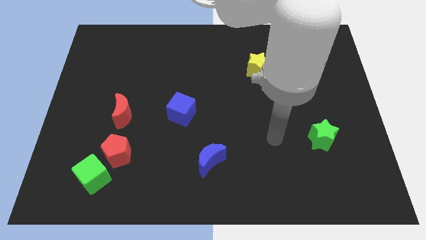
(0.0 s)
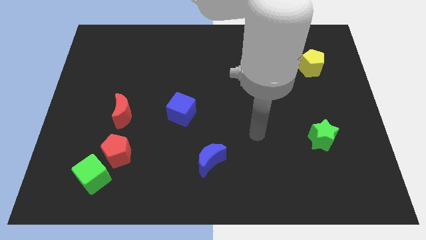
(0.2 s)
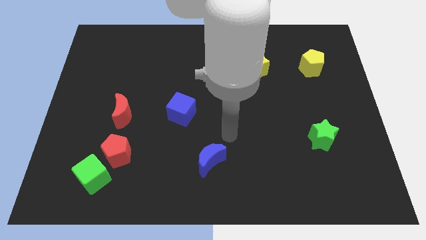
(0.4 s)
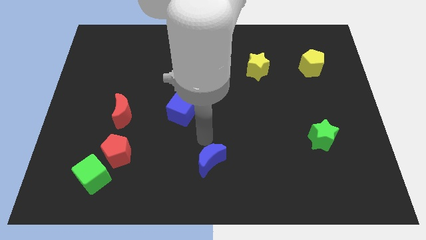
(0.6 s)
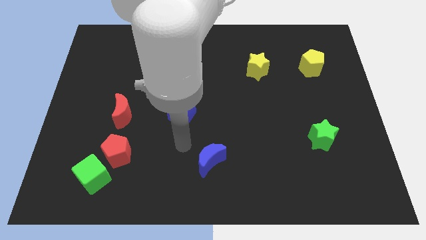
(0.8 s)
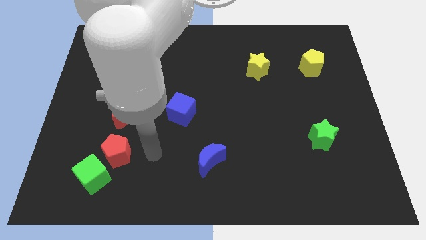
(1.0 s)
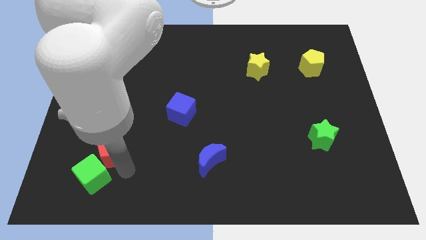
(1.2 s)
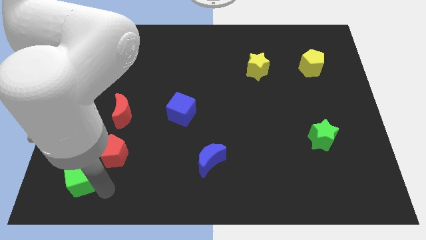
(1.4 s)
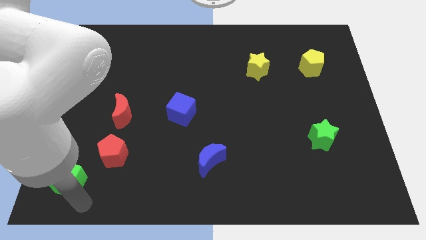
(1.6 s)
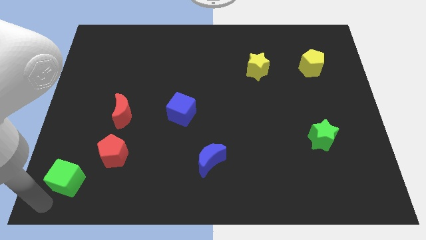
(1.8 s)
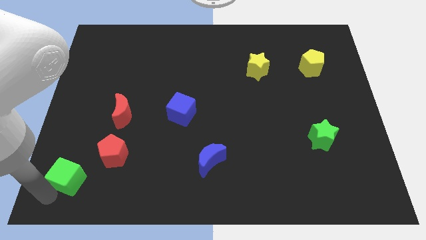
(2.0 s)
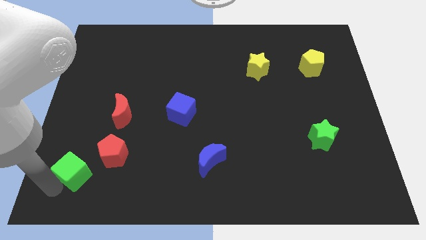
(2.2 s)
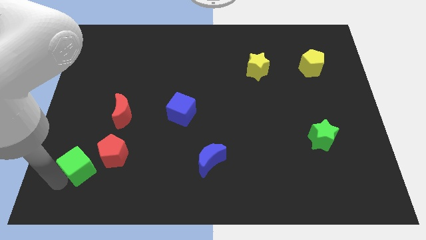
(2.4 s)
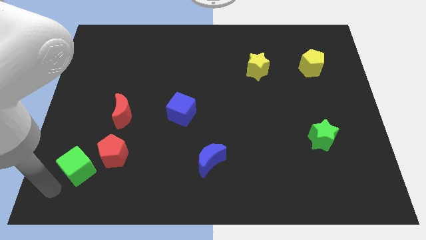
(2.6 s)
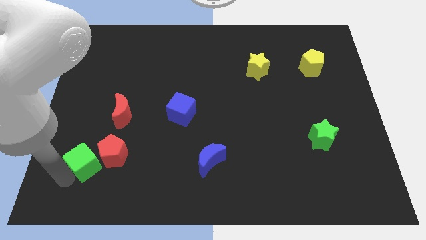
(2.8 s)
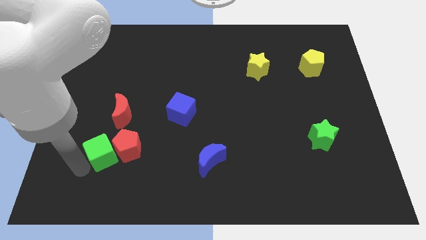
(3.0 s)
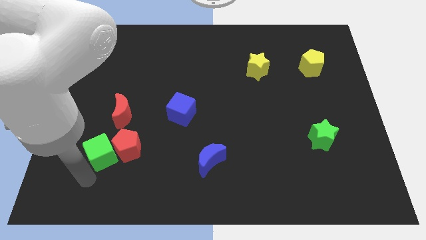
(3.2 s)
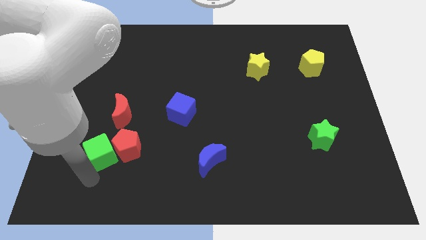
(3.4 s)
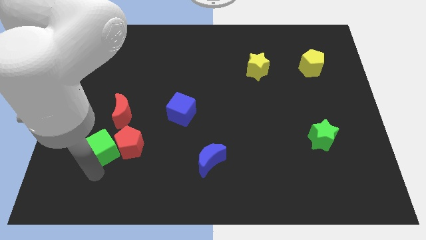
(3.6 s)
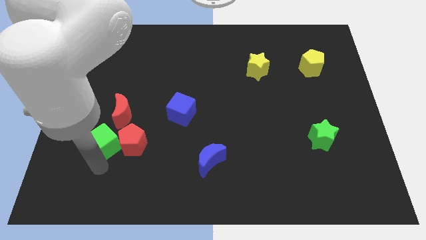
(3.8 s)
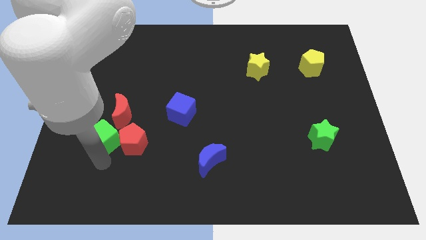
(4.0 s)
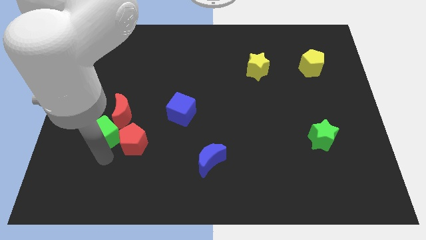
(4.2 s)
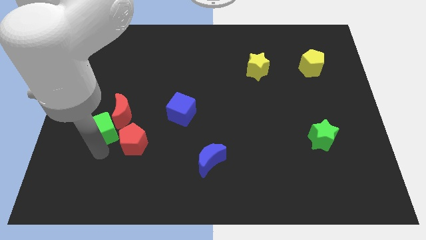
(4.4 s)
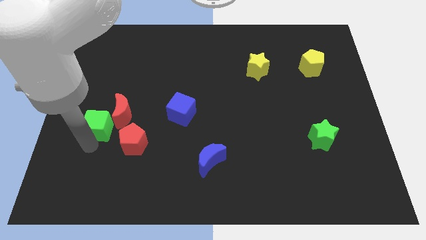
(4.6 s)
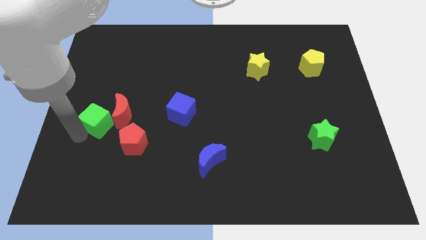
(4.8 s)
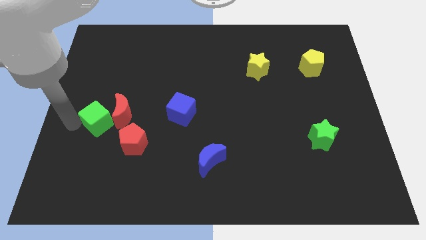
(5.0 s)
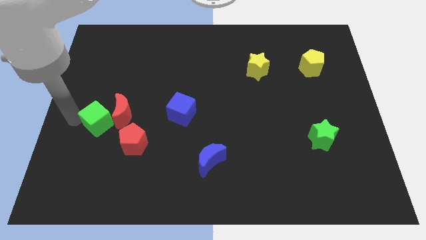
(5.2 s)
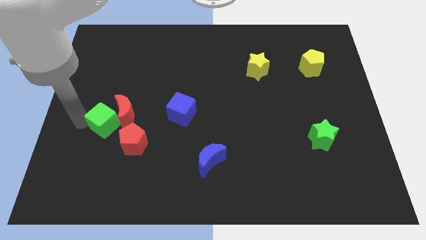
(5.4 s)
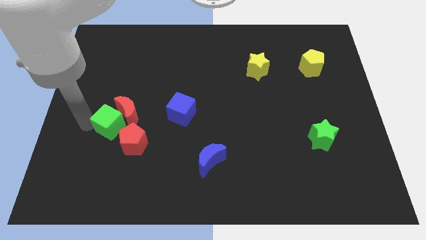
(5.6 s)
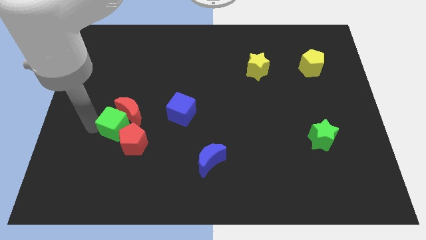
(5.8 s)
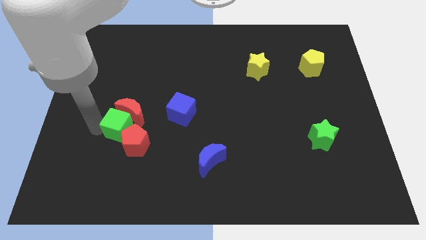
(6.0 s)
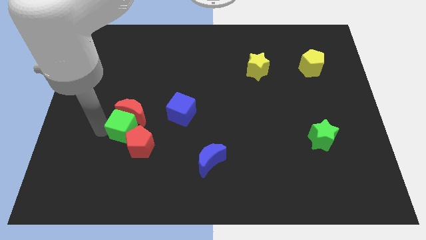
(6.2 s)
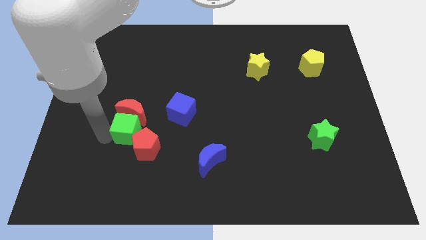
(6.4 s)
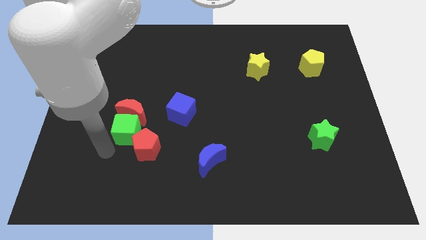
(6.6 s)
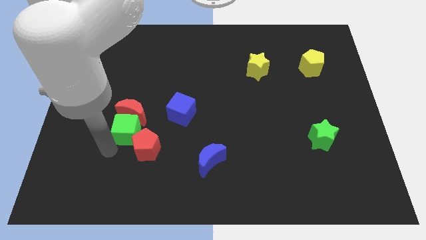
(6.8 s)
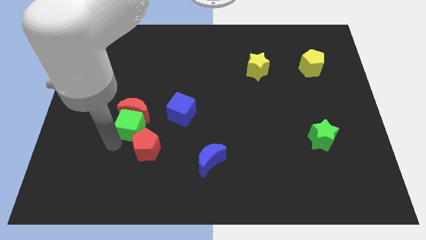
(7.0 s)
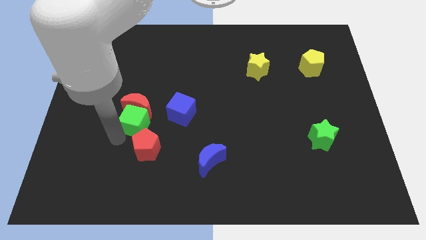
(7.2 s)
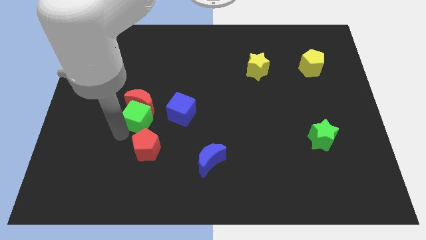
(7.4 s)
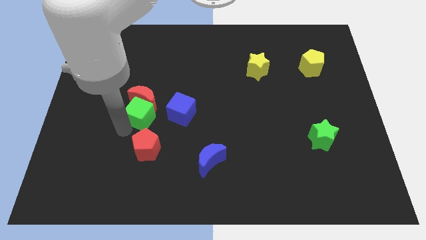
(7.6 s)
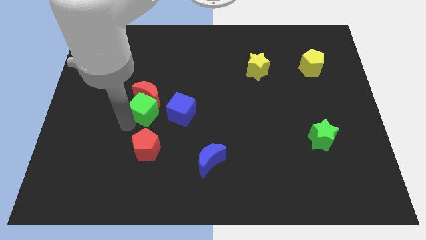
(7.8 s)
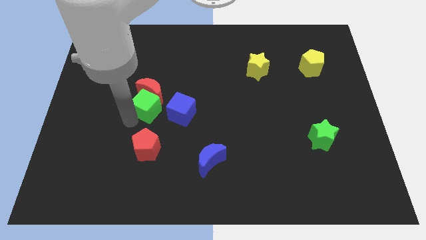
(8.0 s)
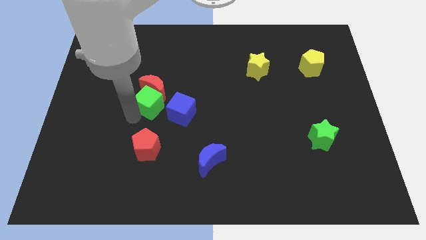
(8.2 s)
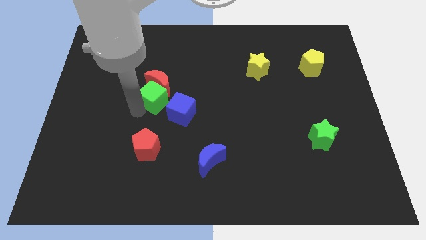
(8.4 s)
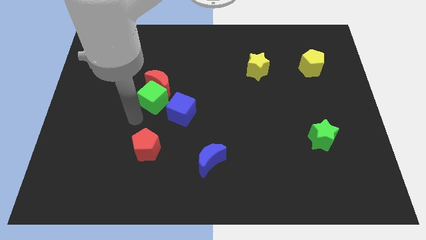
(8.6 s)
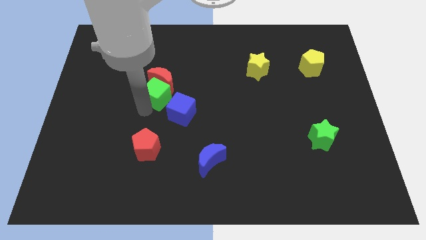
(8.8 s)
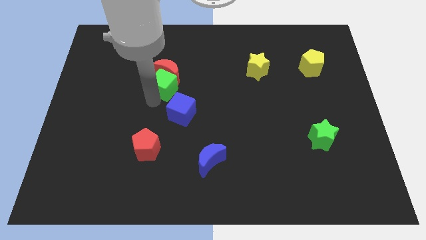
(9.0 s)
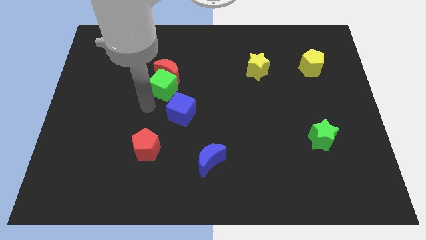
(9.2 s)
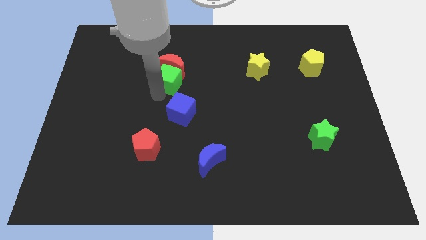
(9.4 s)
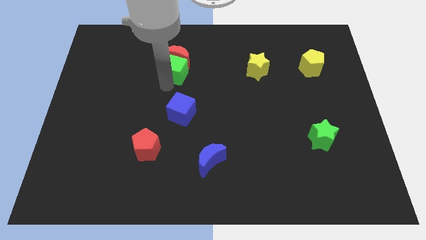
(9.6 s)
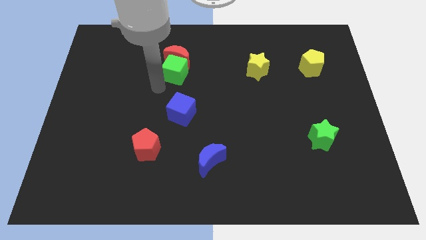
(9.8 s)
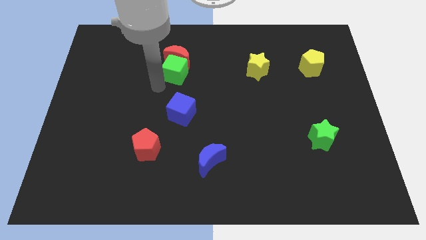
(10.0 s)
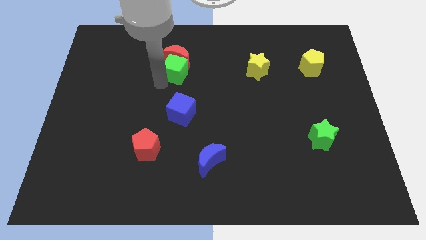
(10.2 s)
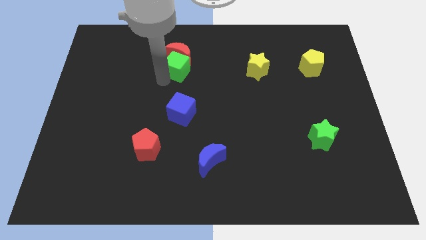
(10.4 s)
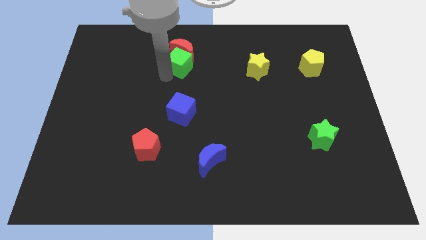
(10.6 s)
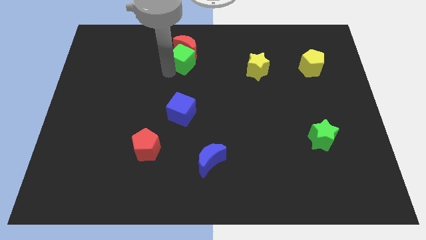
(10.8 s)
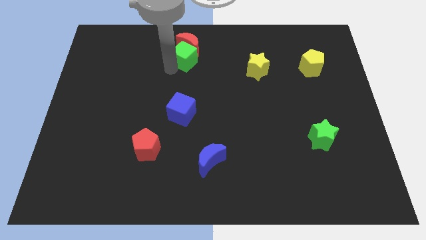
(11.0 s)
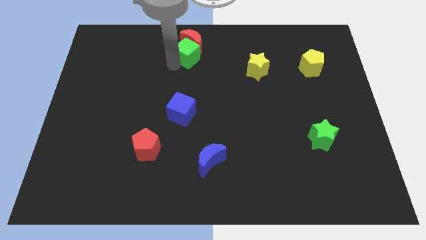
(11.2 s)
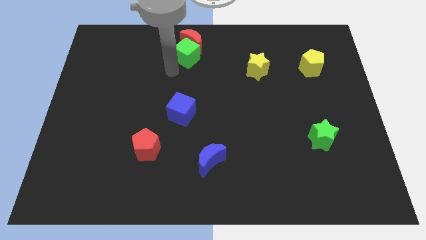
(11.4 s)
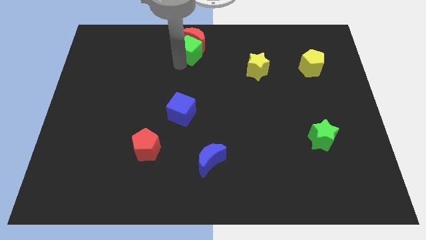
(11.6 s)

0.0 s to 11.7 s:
push the green cube to the top side
